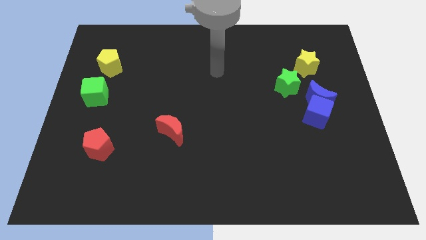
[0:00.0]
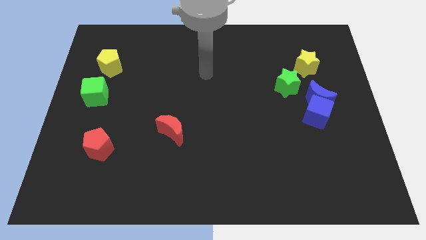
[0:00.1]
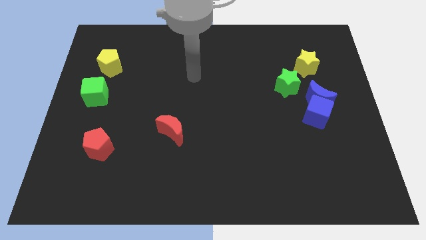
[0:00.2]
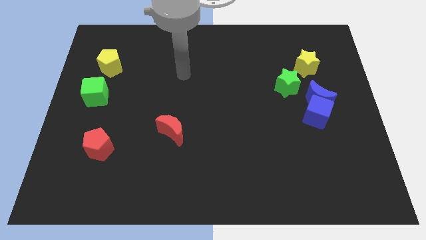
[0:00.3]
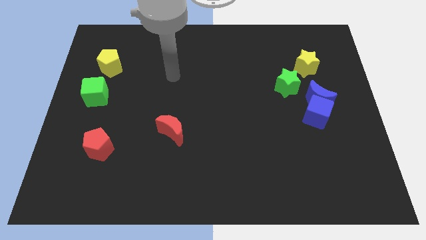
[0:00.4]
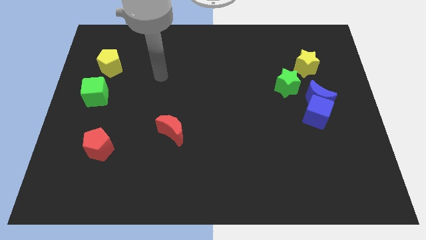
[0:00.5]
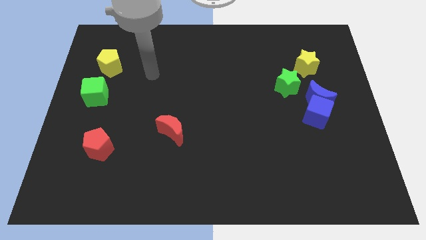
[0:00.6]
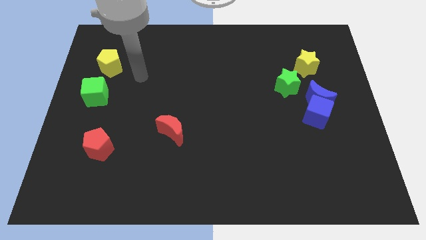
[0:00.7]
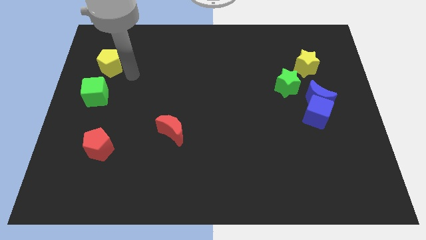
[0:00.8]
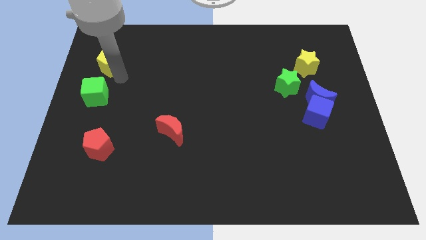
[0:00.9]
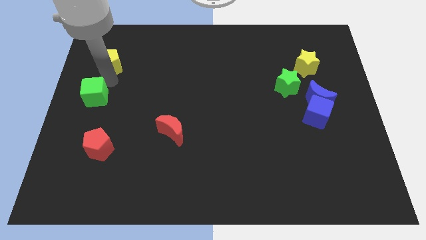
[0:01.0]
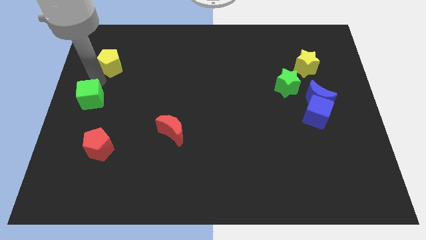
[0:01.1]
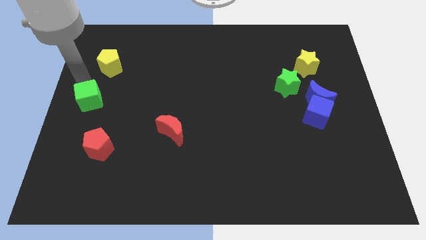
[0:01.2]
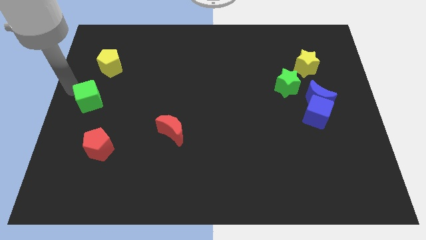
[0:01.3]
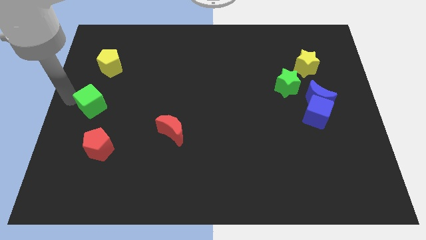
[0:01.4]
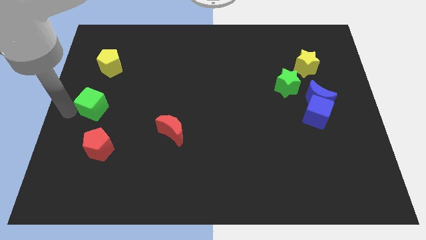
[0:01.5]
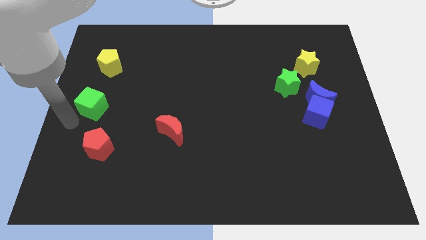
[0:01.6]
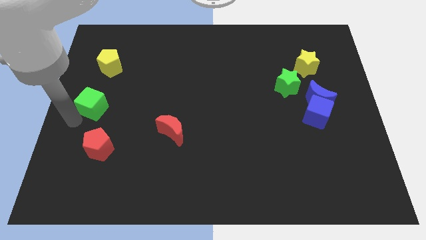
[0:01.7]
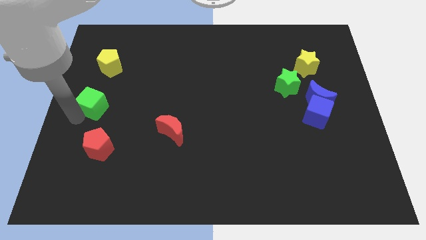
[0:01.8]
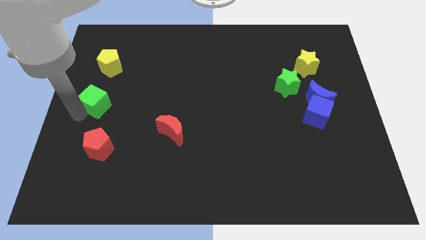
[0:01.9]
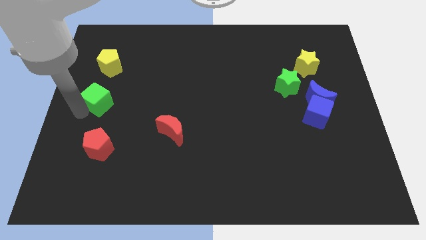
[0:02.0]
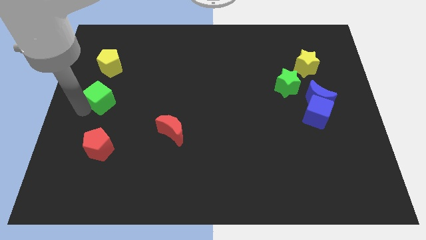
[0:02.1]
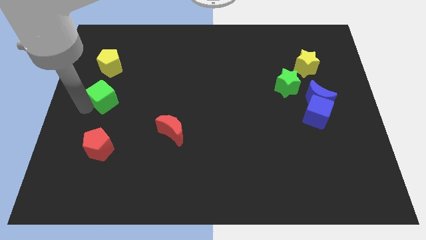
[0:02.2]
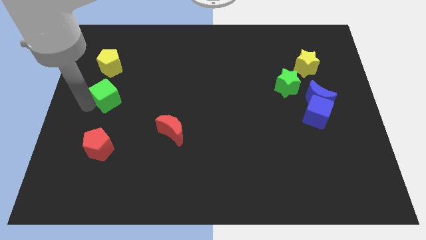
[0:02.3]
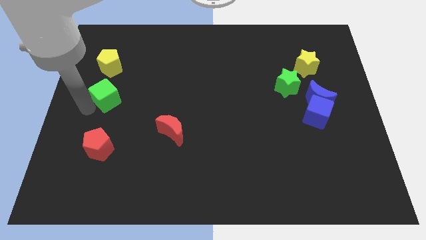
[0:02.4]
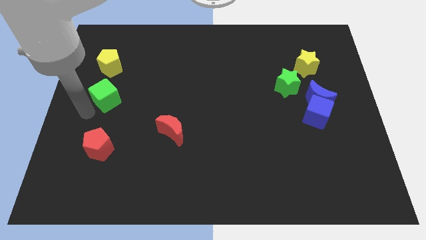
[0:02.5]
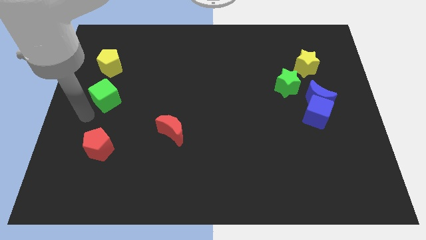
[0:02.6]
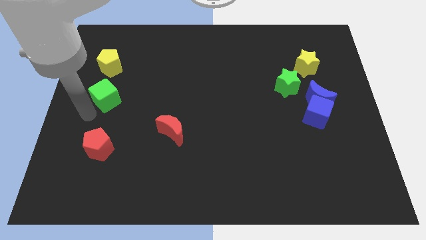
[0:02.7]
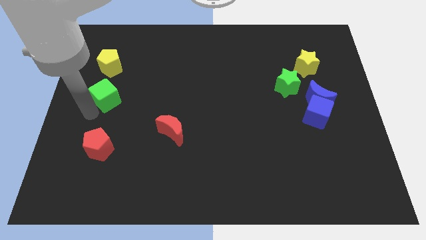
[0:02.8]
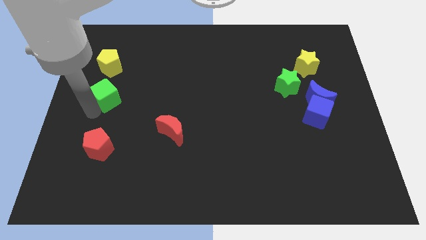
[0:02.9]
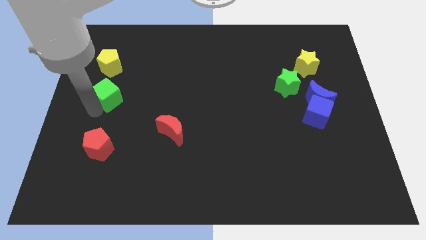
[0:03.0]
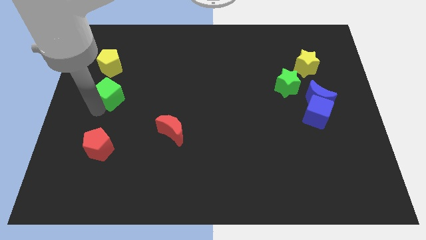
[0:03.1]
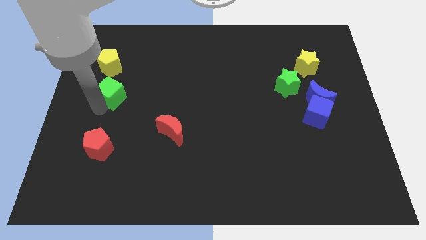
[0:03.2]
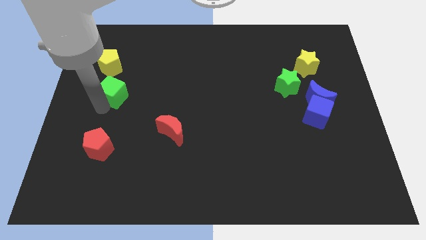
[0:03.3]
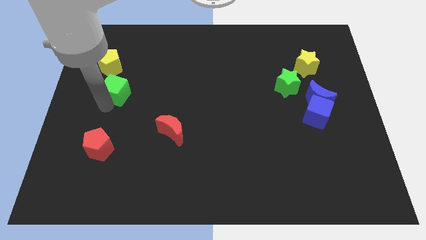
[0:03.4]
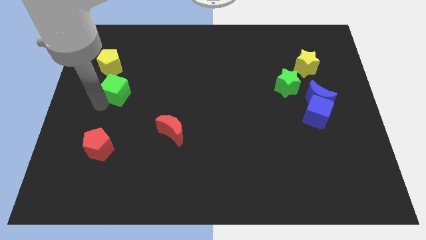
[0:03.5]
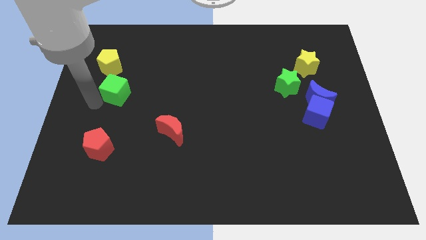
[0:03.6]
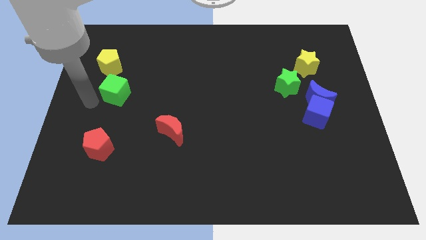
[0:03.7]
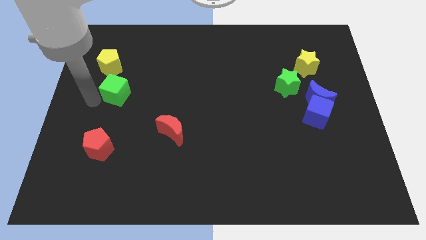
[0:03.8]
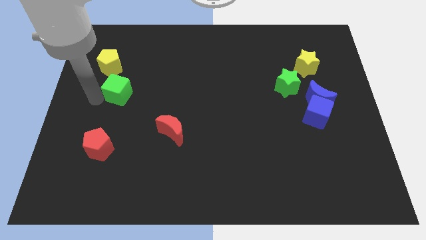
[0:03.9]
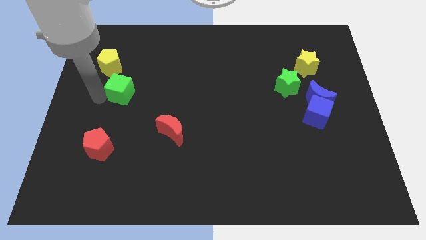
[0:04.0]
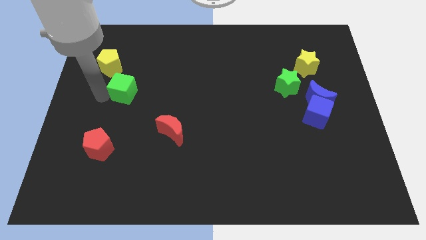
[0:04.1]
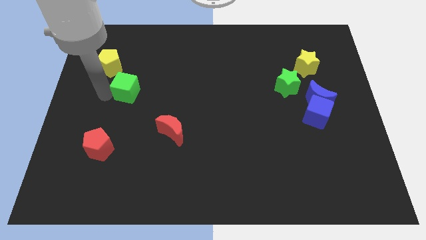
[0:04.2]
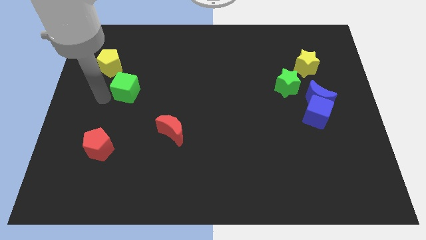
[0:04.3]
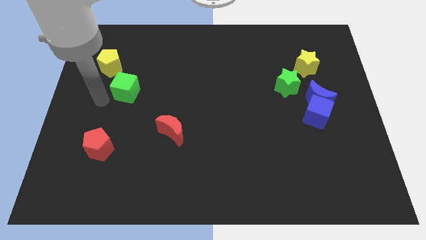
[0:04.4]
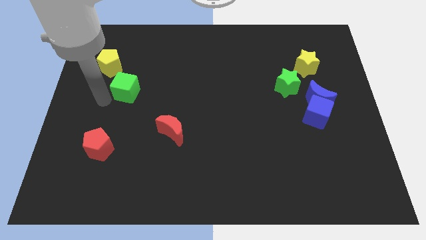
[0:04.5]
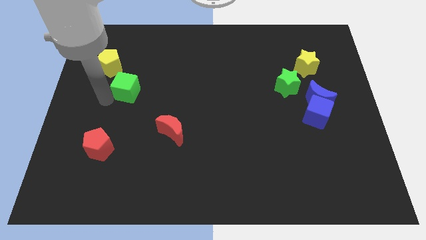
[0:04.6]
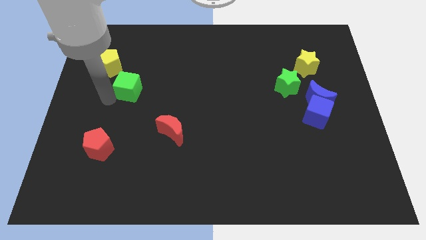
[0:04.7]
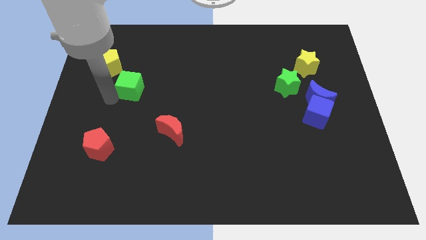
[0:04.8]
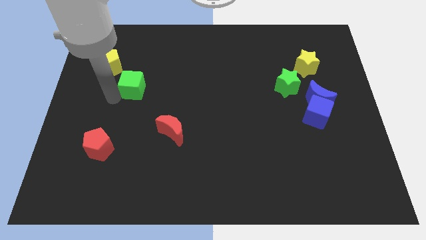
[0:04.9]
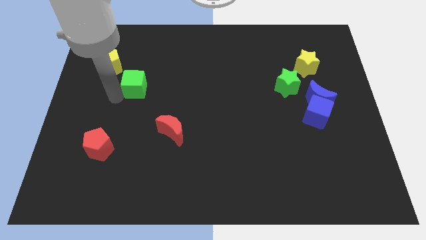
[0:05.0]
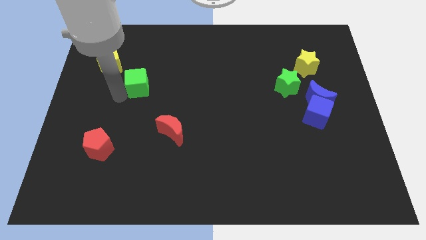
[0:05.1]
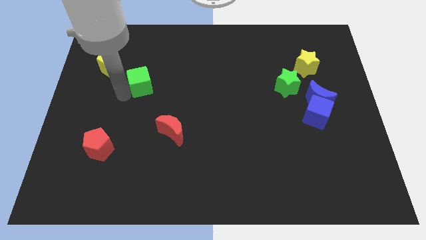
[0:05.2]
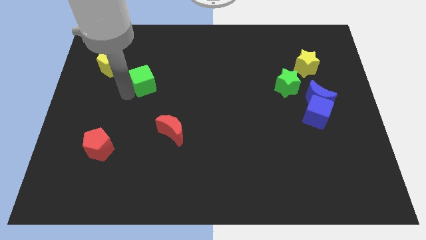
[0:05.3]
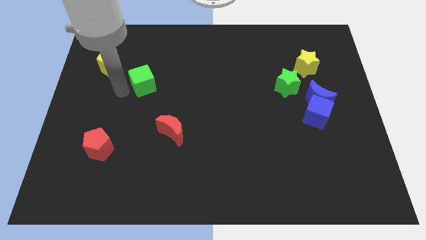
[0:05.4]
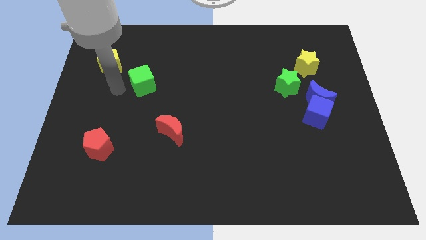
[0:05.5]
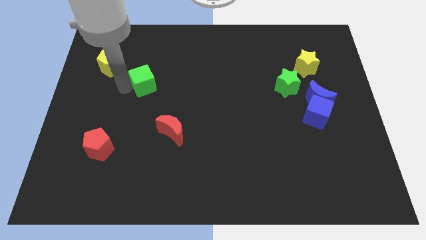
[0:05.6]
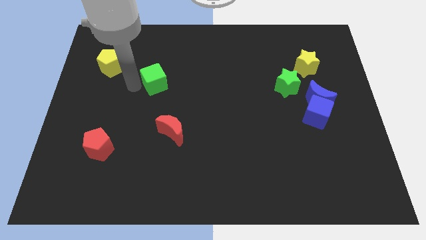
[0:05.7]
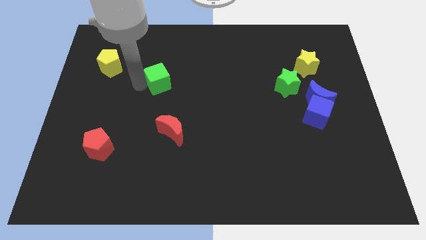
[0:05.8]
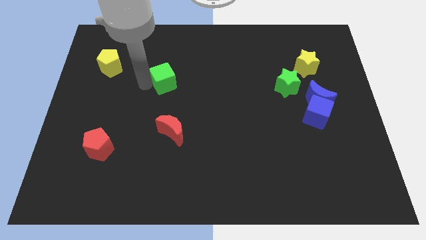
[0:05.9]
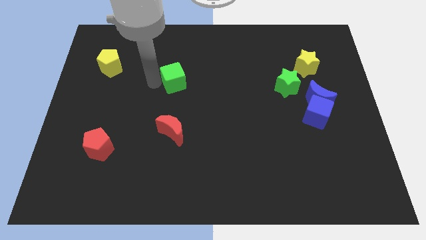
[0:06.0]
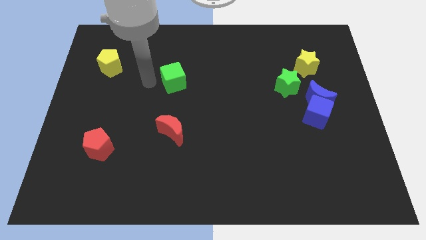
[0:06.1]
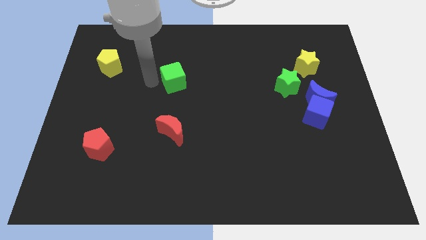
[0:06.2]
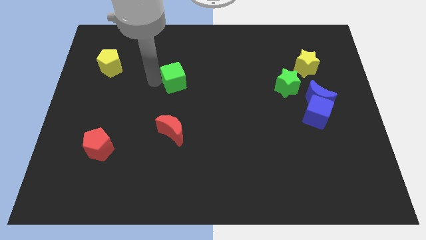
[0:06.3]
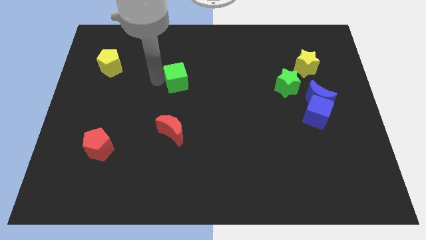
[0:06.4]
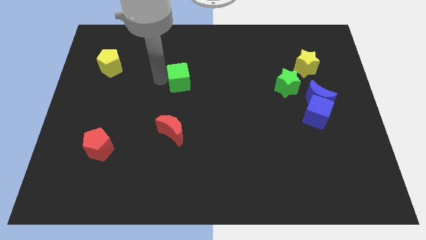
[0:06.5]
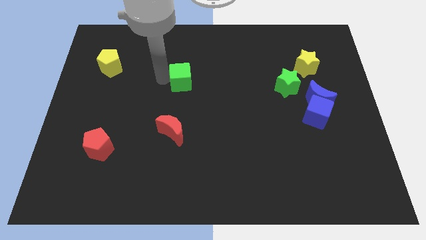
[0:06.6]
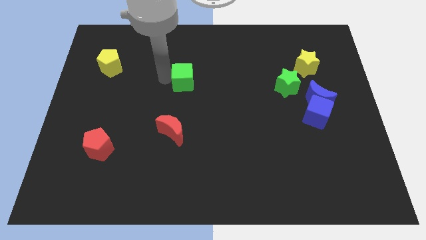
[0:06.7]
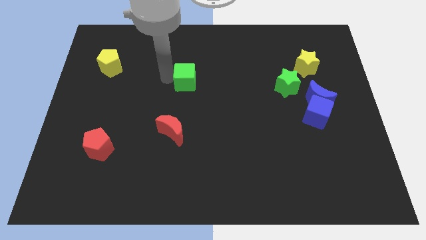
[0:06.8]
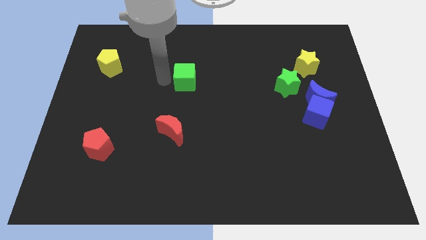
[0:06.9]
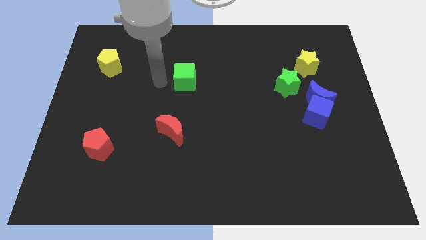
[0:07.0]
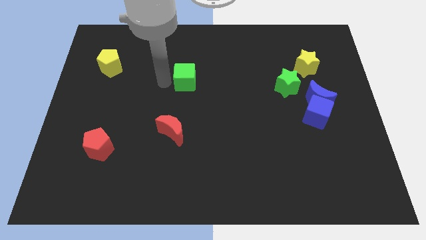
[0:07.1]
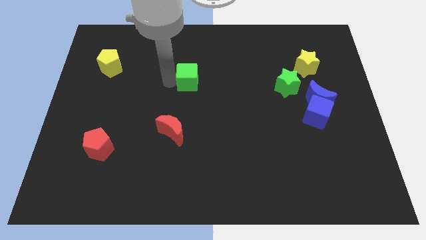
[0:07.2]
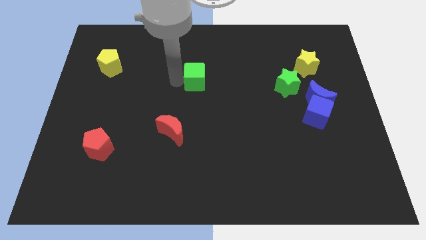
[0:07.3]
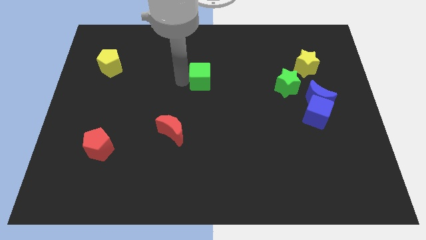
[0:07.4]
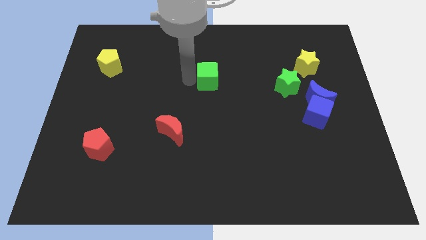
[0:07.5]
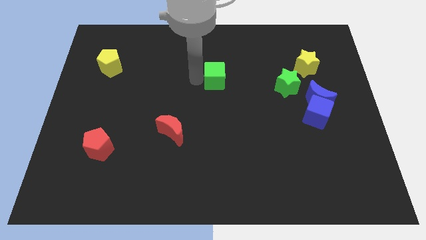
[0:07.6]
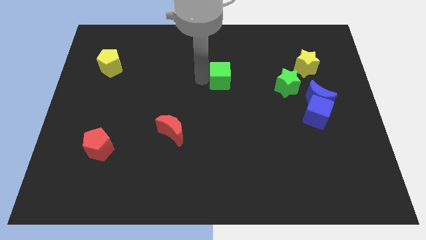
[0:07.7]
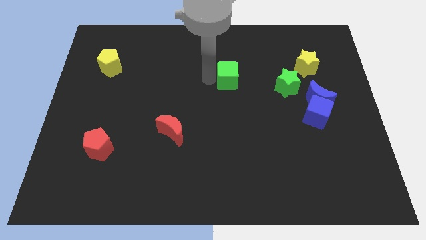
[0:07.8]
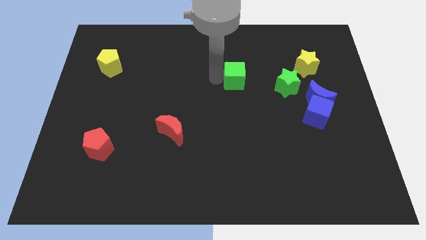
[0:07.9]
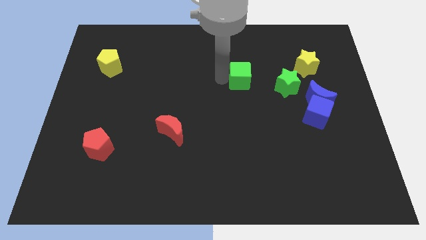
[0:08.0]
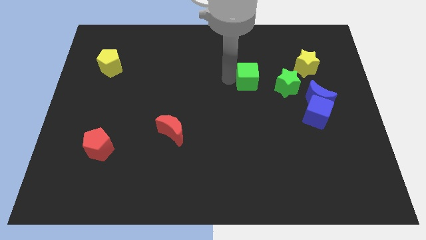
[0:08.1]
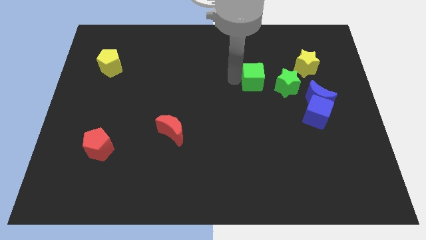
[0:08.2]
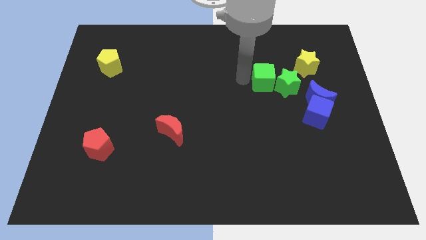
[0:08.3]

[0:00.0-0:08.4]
move the green cube towards the green star
